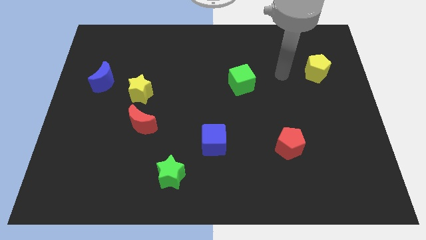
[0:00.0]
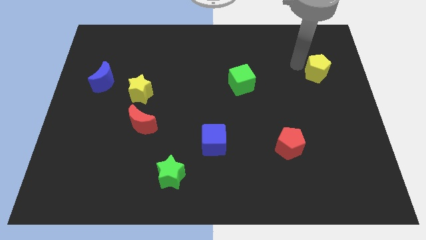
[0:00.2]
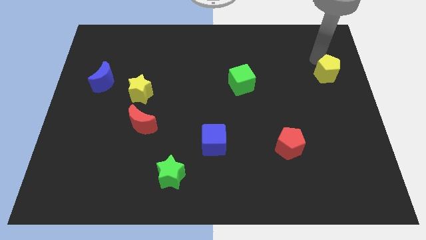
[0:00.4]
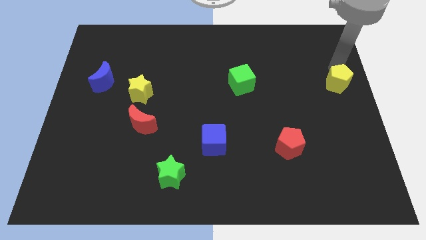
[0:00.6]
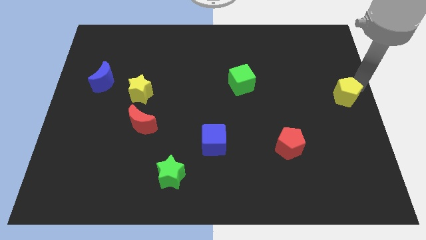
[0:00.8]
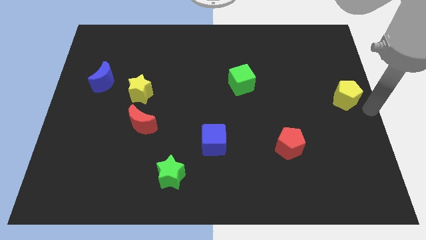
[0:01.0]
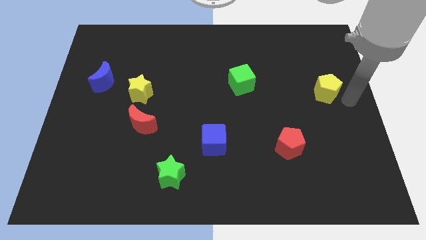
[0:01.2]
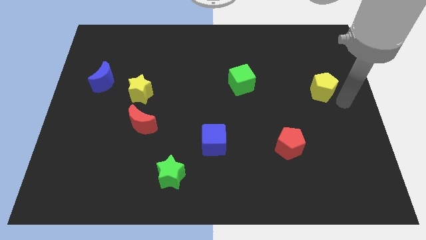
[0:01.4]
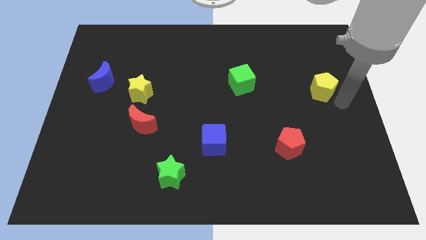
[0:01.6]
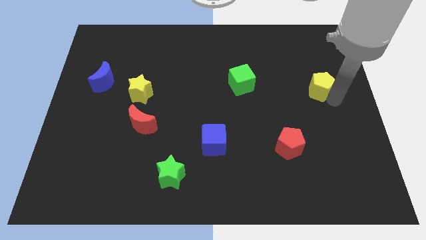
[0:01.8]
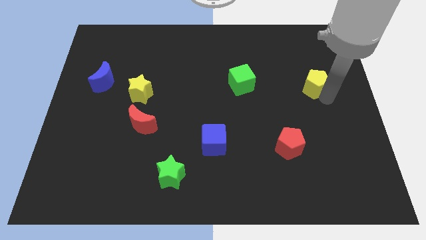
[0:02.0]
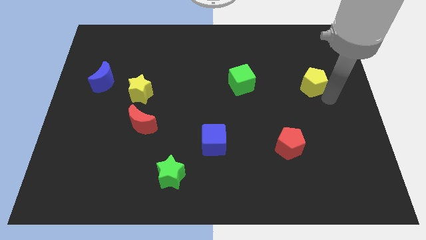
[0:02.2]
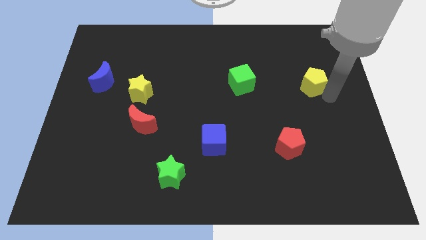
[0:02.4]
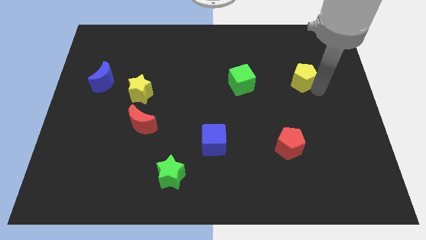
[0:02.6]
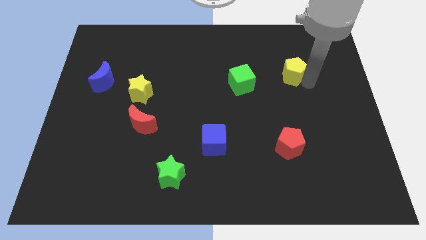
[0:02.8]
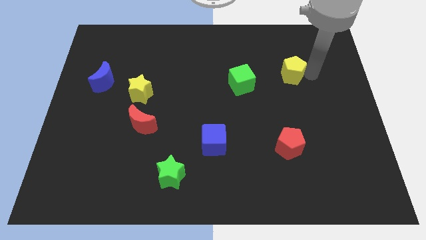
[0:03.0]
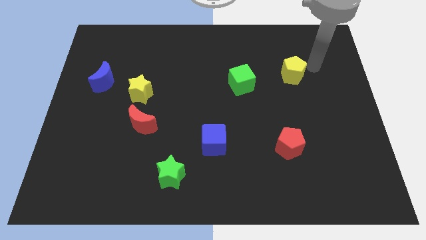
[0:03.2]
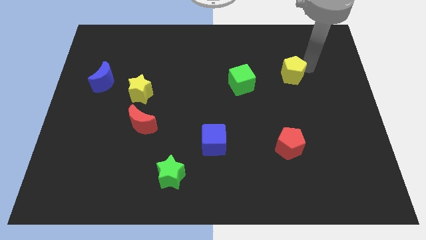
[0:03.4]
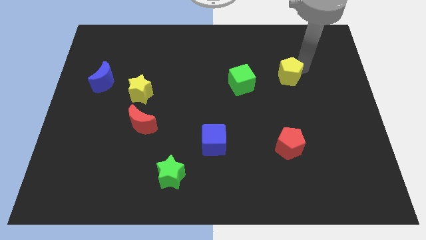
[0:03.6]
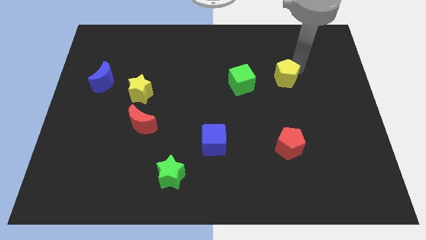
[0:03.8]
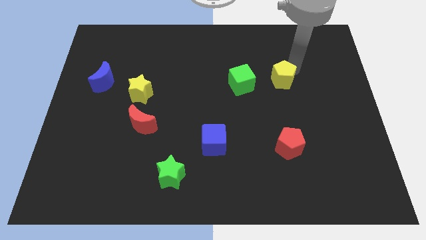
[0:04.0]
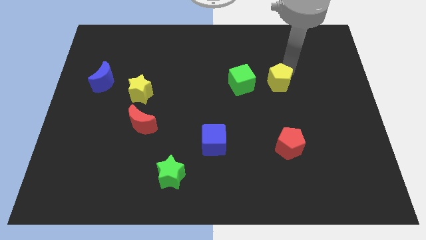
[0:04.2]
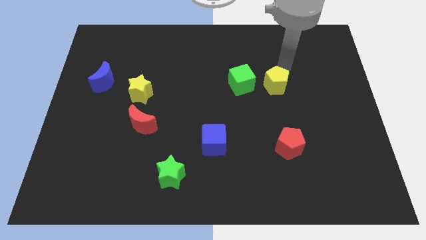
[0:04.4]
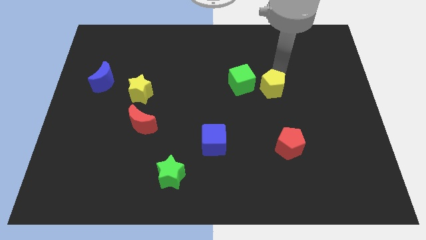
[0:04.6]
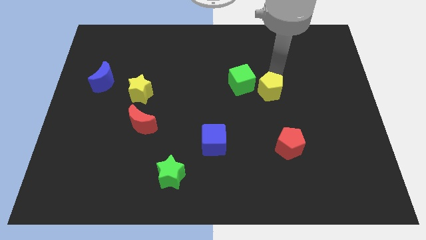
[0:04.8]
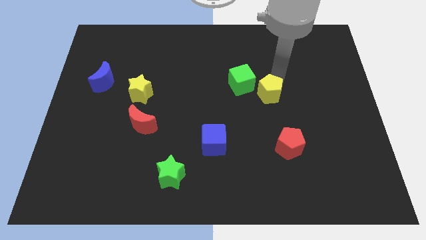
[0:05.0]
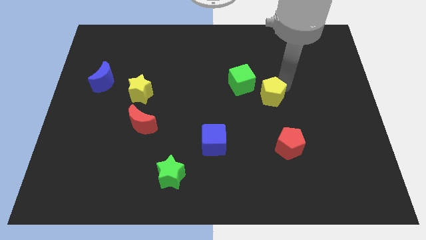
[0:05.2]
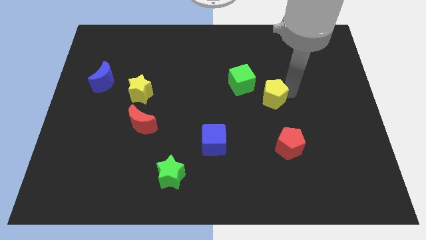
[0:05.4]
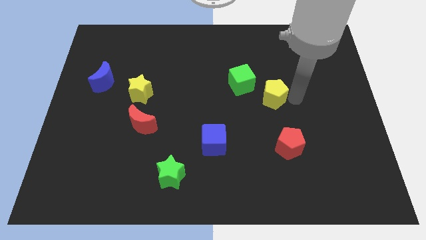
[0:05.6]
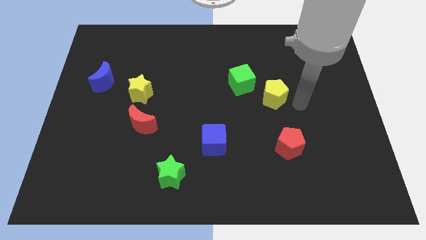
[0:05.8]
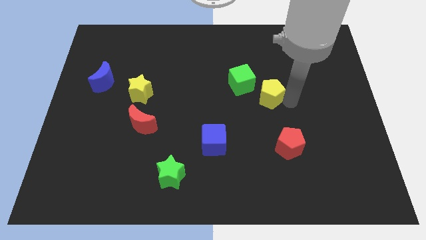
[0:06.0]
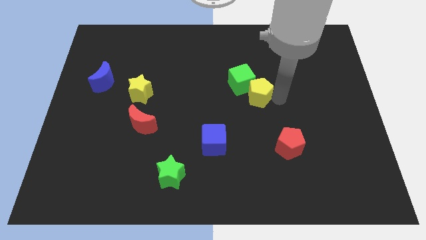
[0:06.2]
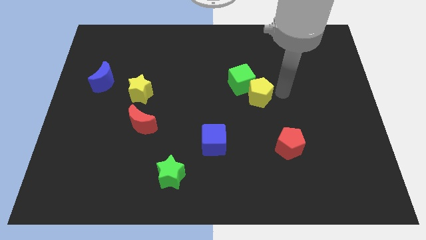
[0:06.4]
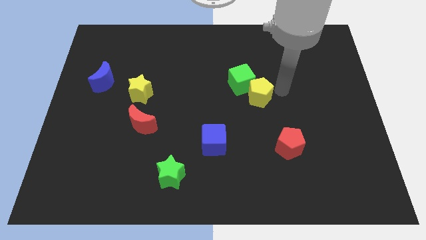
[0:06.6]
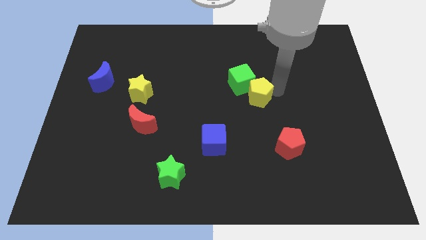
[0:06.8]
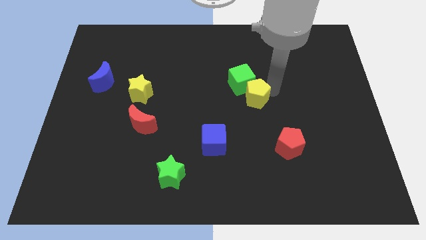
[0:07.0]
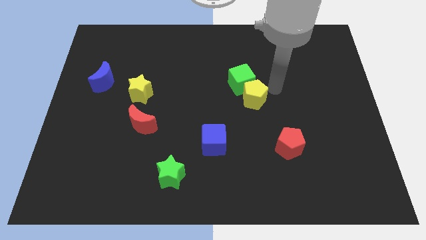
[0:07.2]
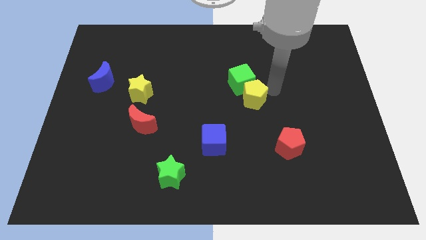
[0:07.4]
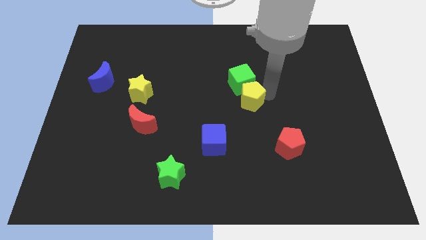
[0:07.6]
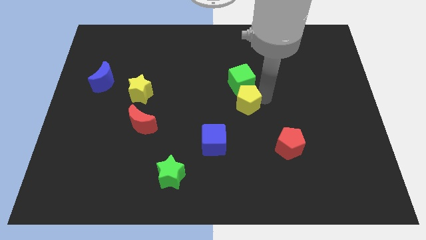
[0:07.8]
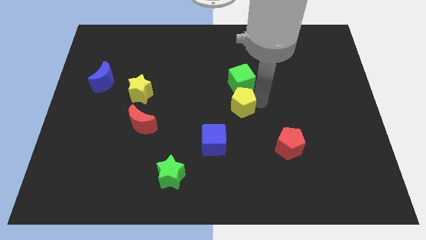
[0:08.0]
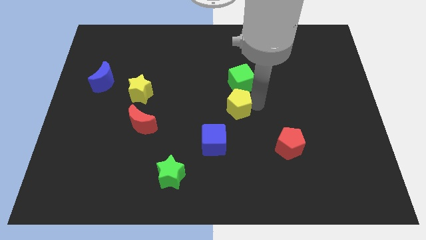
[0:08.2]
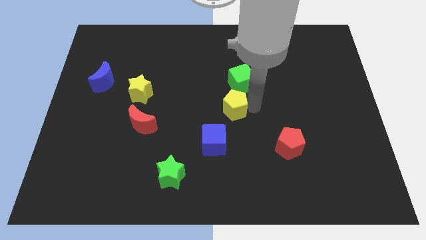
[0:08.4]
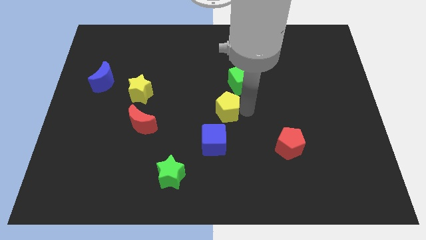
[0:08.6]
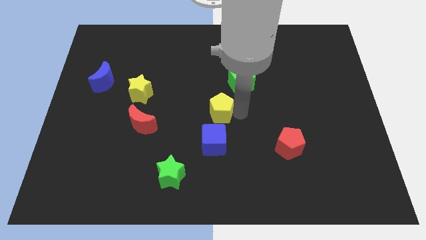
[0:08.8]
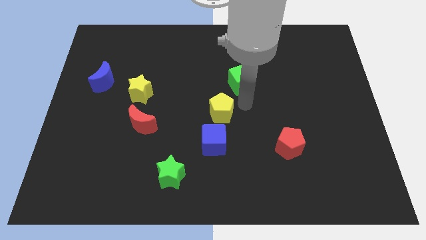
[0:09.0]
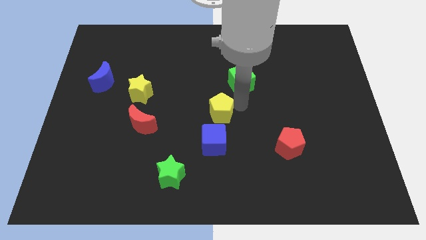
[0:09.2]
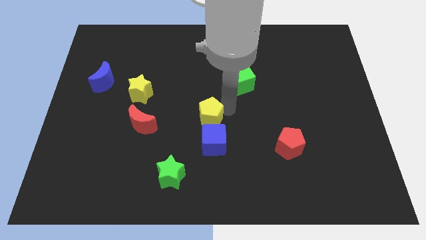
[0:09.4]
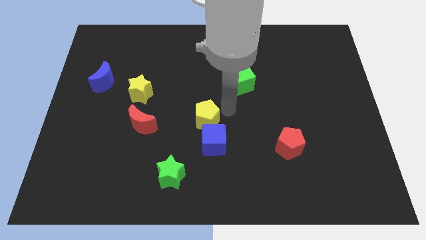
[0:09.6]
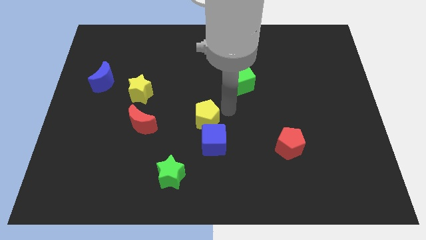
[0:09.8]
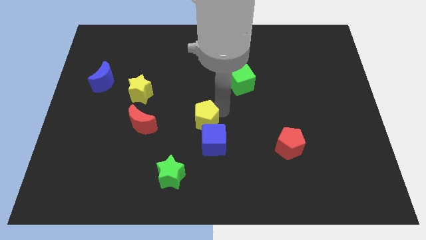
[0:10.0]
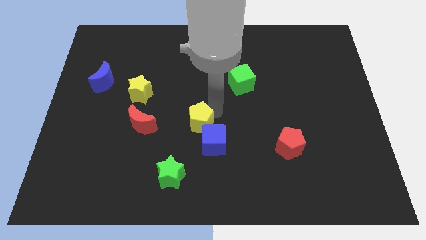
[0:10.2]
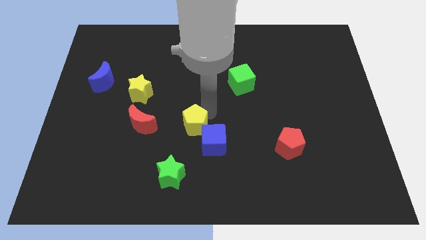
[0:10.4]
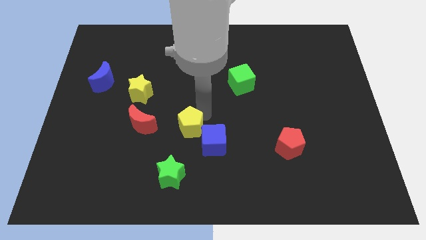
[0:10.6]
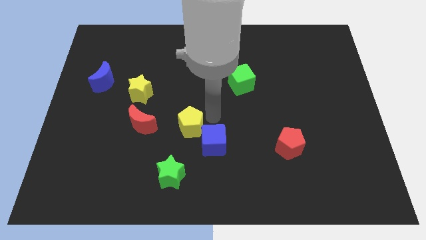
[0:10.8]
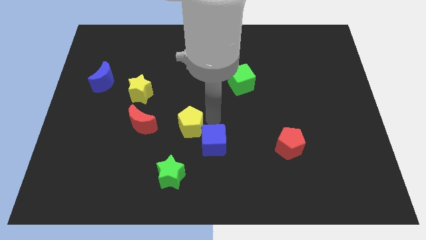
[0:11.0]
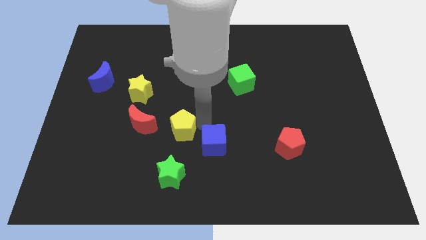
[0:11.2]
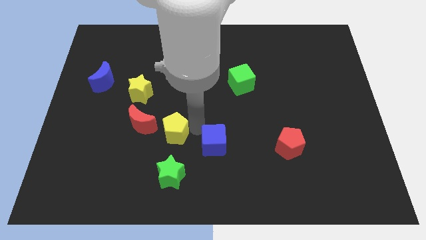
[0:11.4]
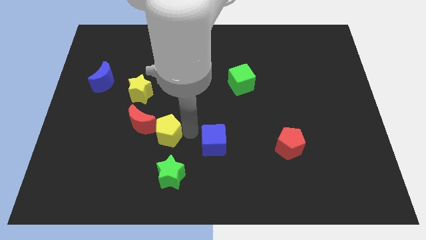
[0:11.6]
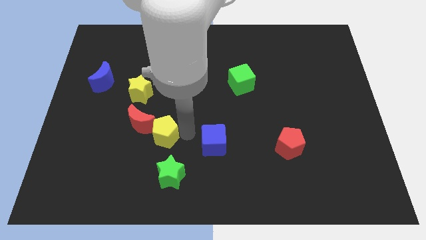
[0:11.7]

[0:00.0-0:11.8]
put the yellow pentagon close to the red moon

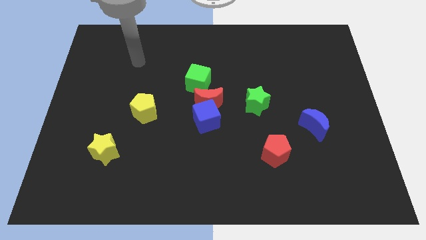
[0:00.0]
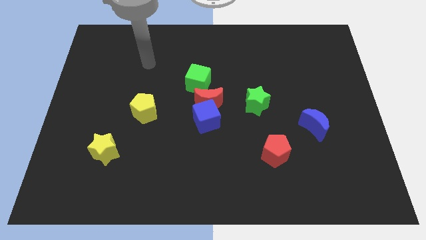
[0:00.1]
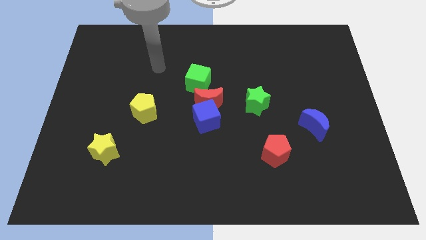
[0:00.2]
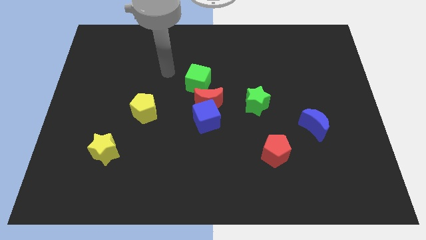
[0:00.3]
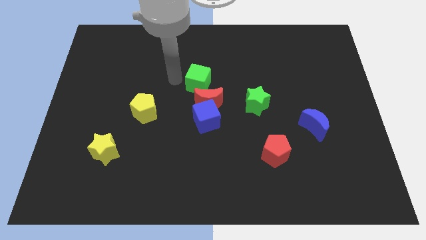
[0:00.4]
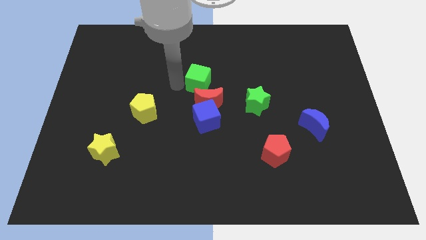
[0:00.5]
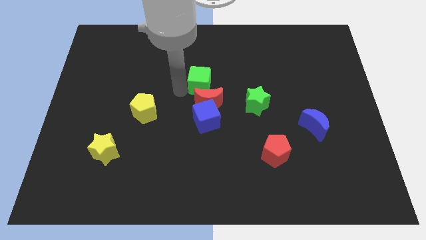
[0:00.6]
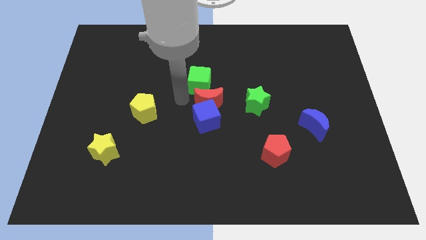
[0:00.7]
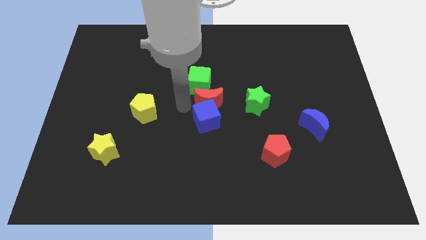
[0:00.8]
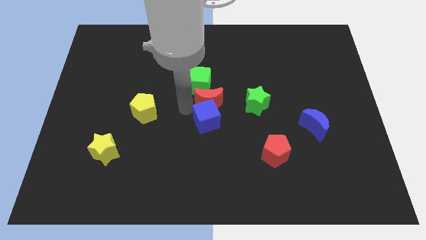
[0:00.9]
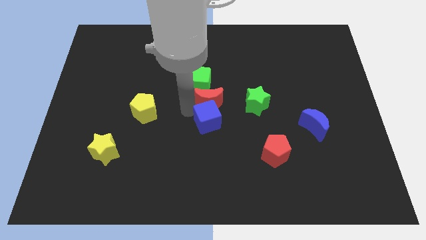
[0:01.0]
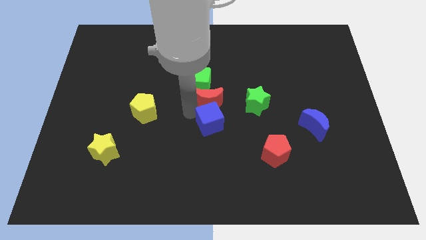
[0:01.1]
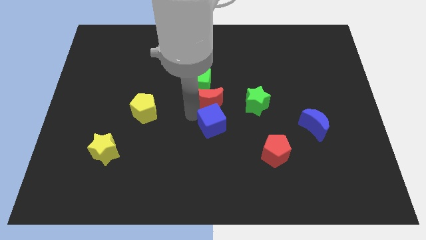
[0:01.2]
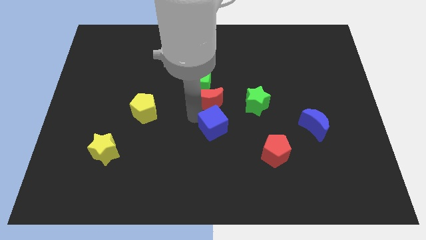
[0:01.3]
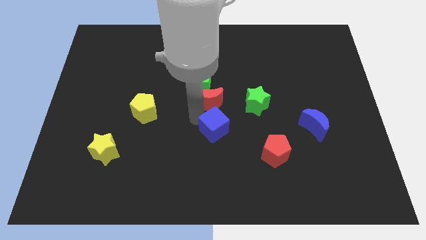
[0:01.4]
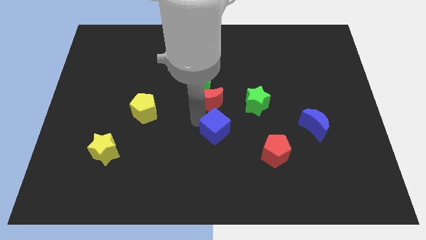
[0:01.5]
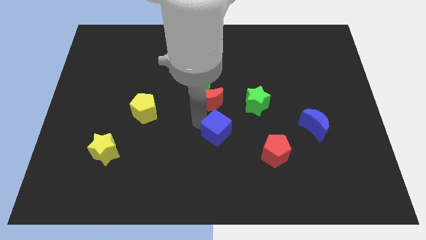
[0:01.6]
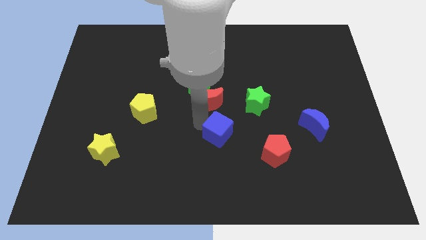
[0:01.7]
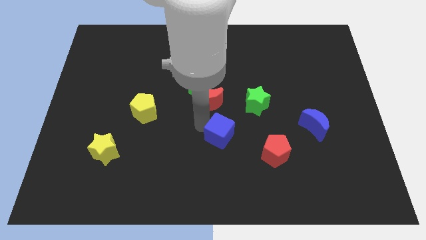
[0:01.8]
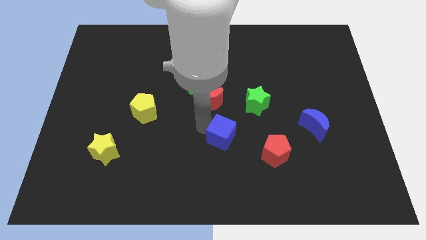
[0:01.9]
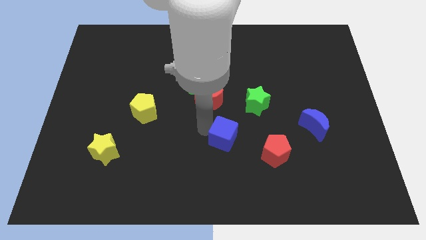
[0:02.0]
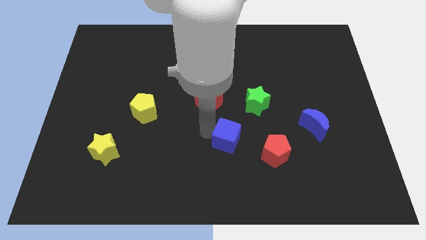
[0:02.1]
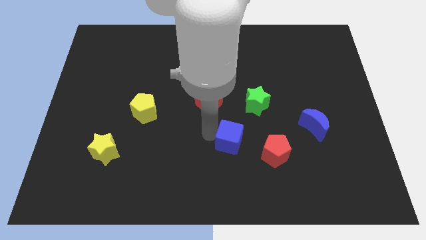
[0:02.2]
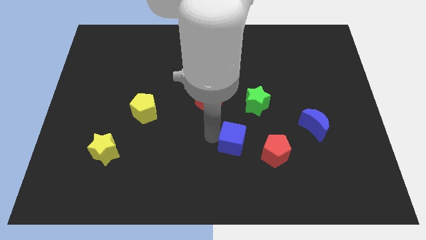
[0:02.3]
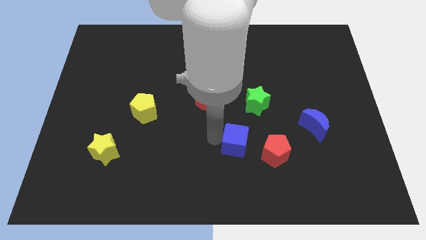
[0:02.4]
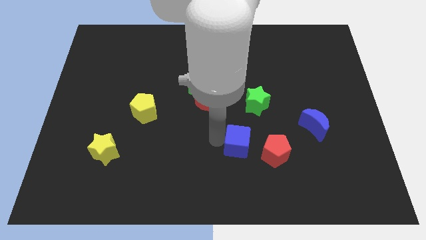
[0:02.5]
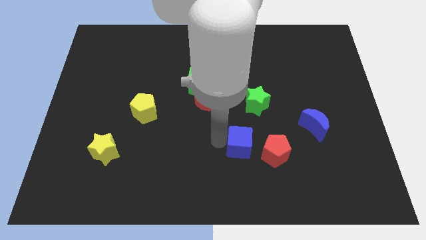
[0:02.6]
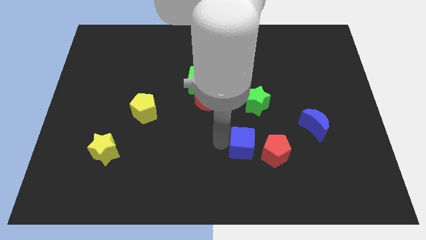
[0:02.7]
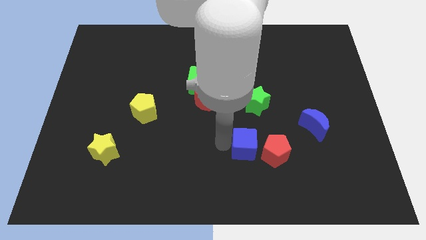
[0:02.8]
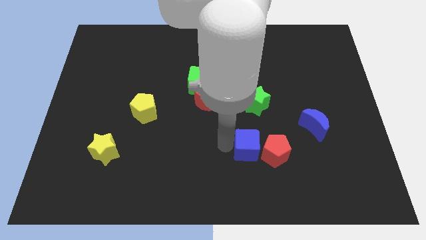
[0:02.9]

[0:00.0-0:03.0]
slide the blue cube to the red pentagon
